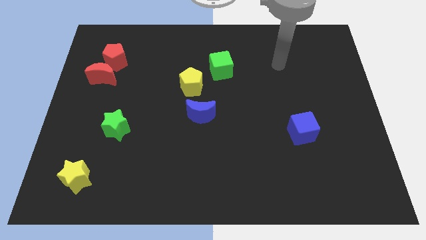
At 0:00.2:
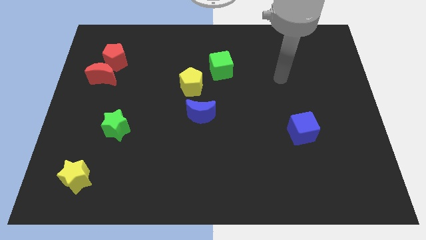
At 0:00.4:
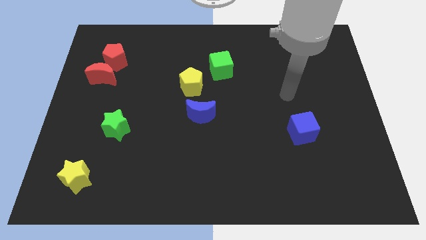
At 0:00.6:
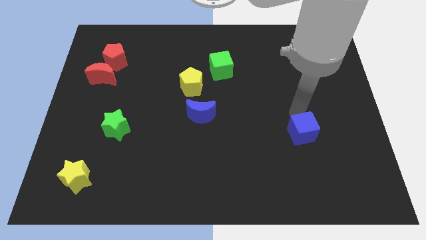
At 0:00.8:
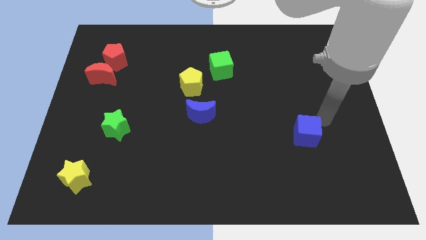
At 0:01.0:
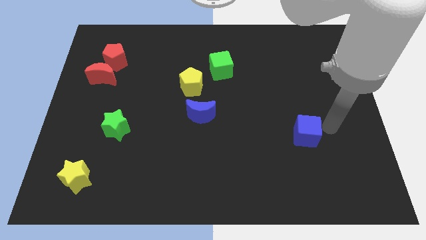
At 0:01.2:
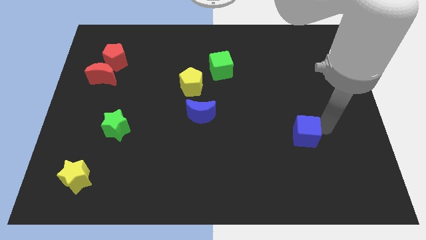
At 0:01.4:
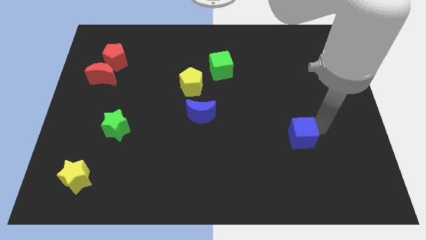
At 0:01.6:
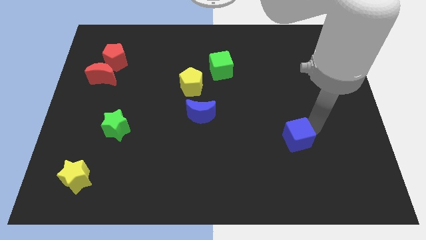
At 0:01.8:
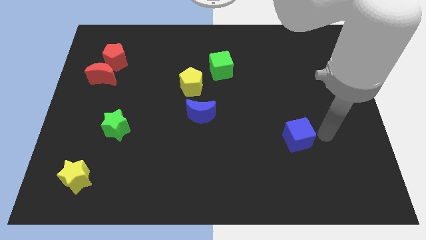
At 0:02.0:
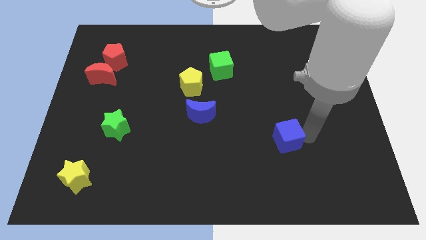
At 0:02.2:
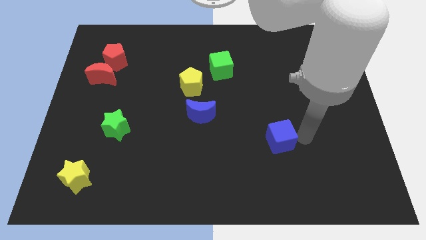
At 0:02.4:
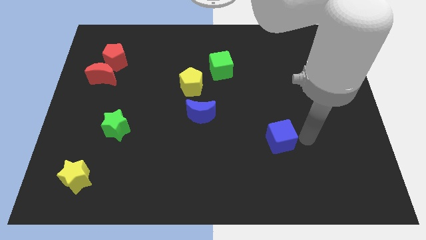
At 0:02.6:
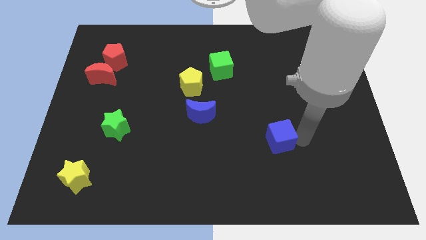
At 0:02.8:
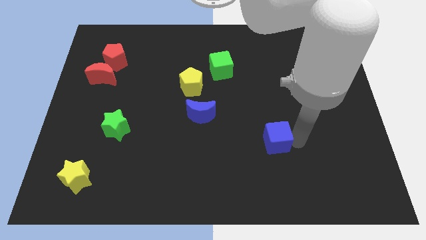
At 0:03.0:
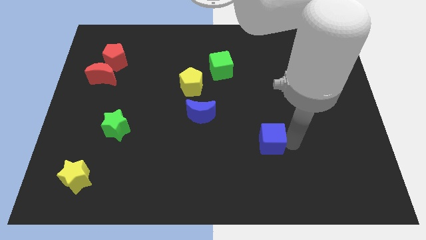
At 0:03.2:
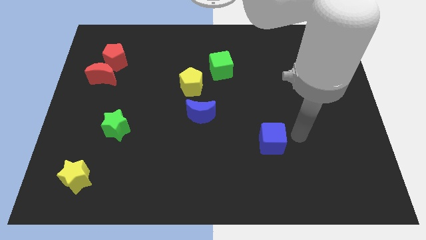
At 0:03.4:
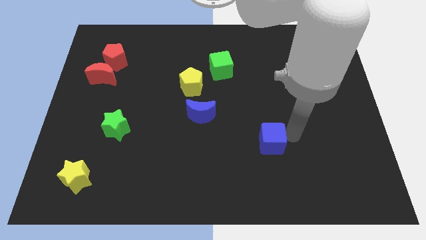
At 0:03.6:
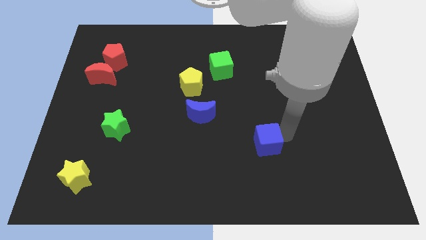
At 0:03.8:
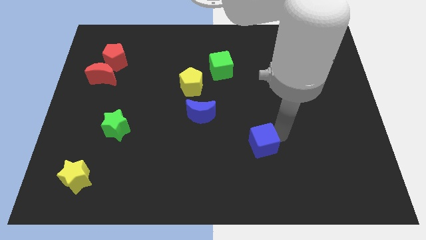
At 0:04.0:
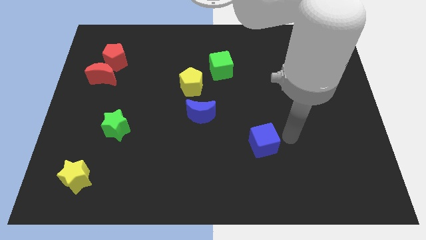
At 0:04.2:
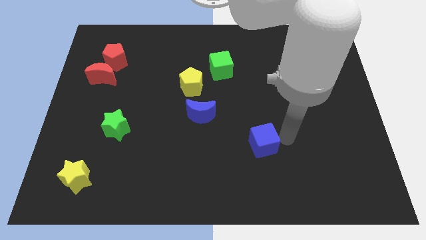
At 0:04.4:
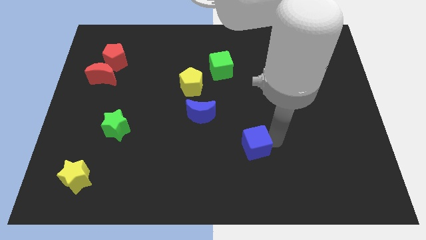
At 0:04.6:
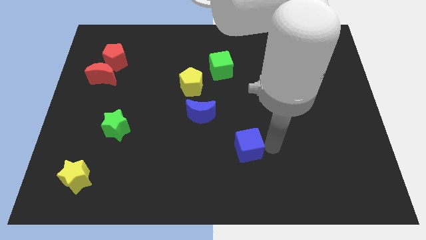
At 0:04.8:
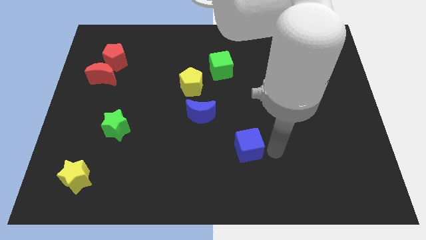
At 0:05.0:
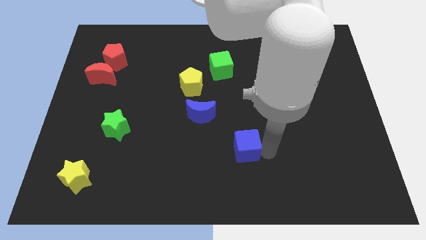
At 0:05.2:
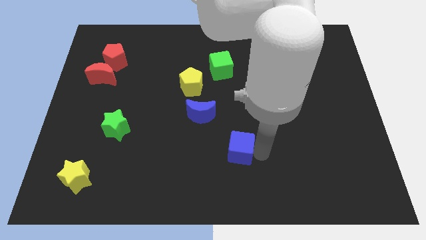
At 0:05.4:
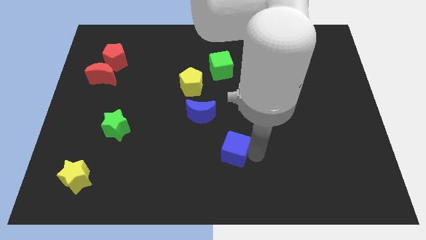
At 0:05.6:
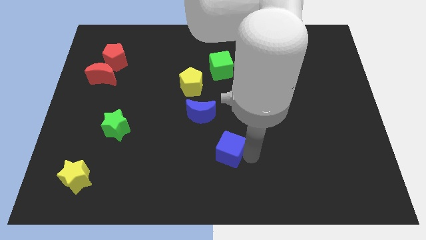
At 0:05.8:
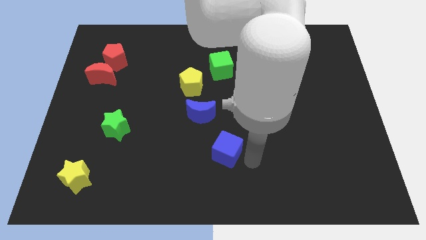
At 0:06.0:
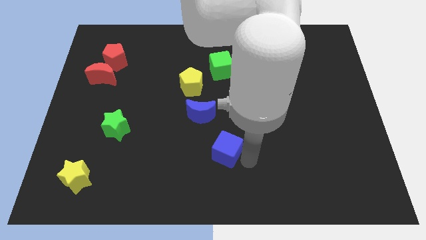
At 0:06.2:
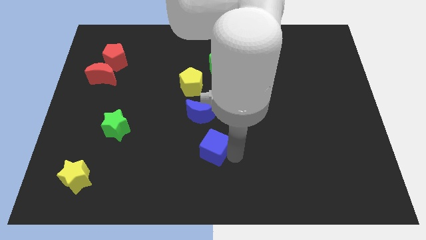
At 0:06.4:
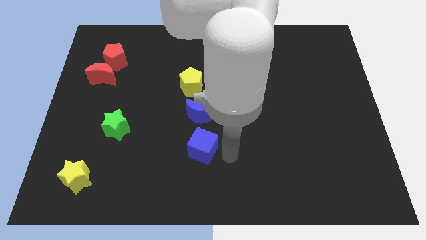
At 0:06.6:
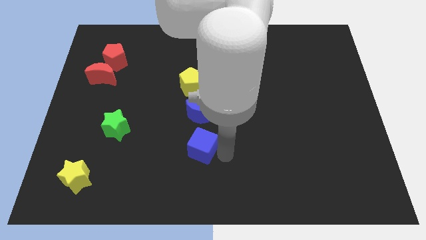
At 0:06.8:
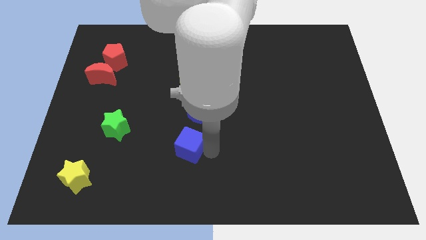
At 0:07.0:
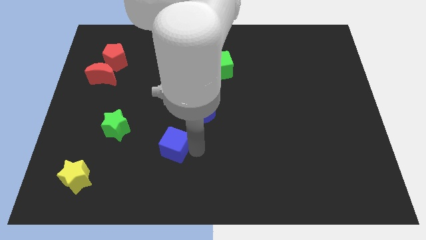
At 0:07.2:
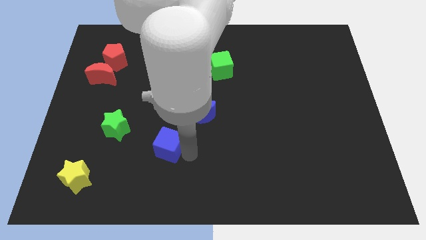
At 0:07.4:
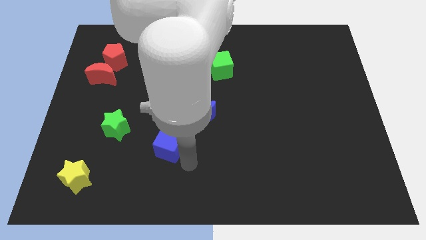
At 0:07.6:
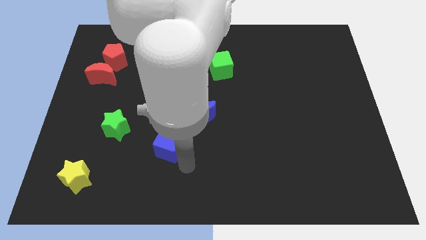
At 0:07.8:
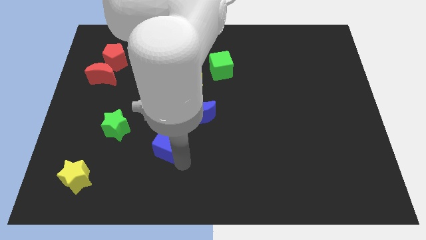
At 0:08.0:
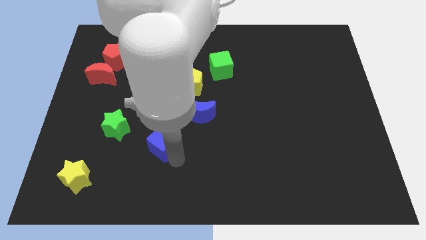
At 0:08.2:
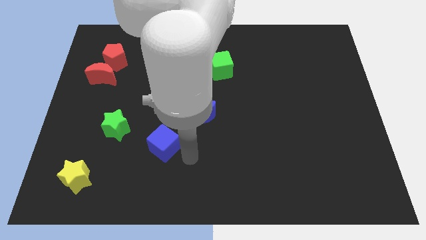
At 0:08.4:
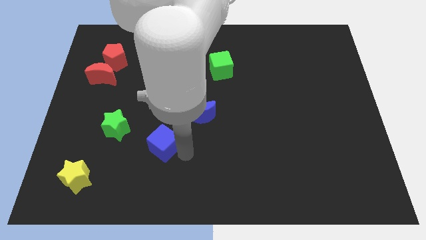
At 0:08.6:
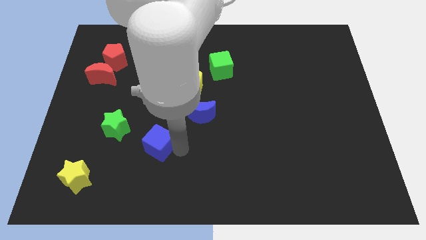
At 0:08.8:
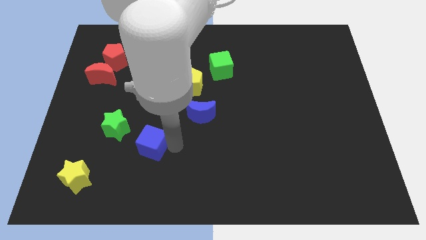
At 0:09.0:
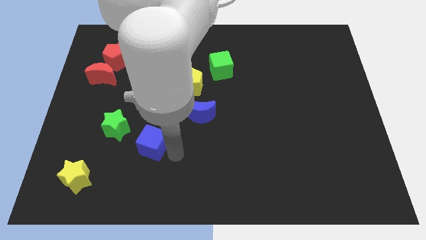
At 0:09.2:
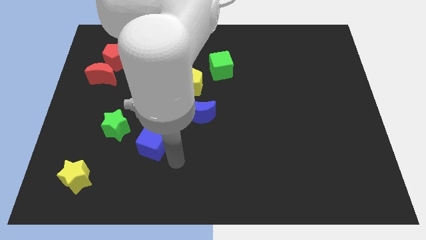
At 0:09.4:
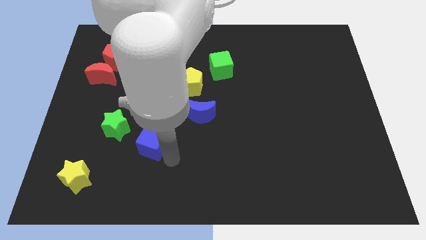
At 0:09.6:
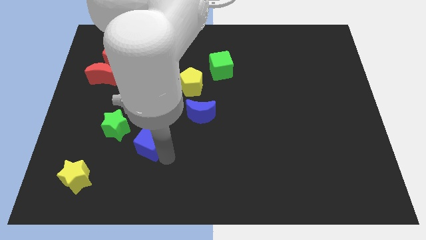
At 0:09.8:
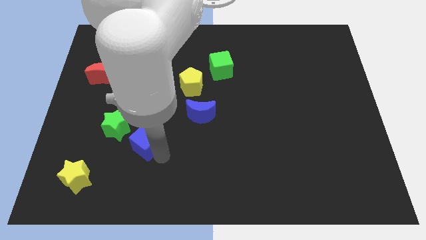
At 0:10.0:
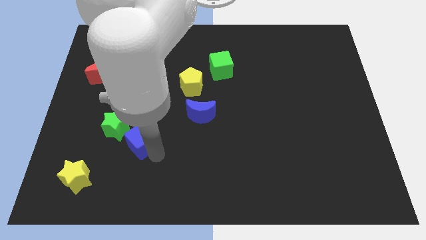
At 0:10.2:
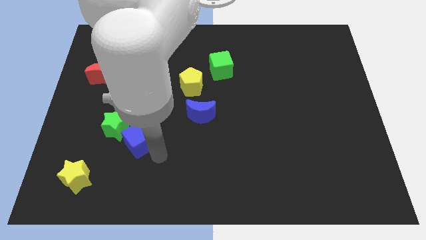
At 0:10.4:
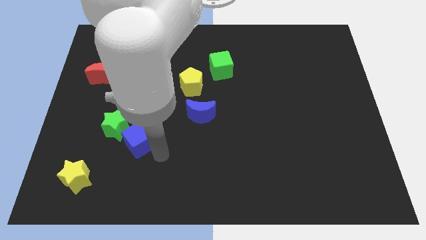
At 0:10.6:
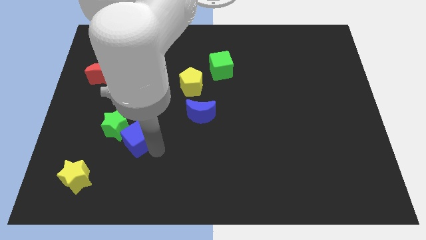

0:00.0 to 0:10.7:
move the blue cube close to the green star

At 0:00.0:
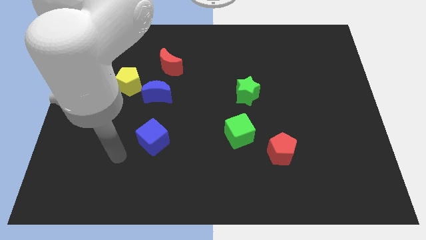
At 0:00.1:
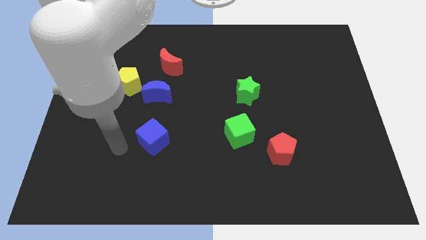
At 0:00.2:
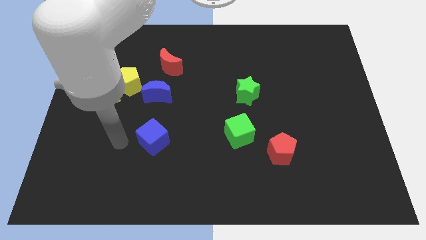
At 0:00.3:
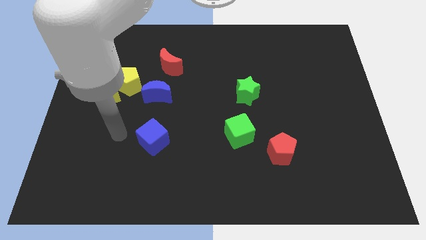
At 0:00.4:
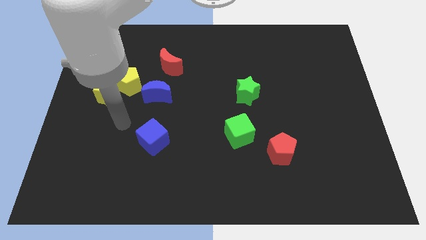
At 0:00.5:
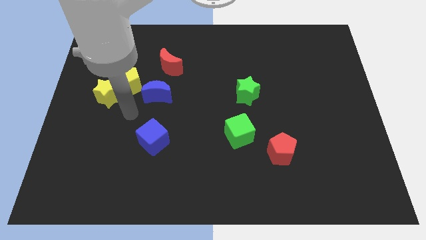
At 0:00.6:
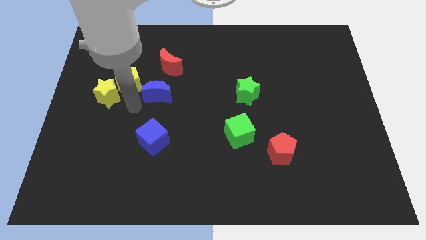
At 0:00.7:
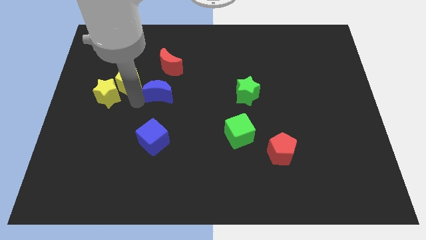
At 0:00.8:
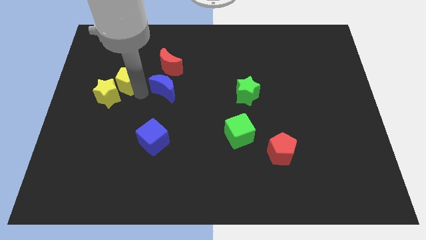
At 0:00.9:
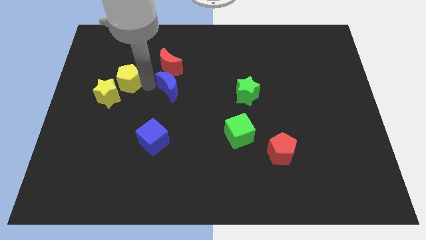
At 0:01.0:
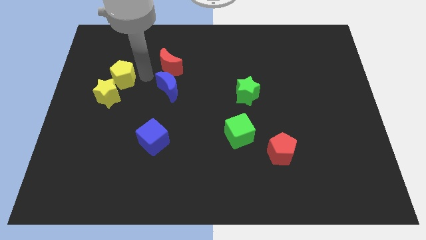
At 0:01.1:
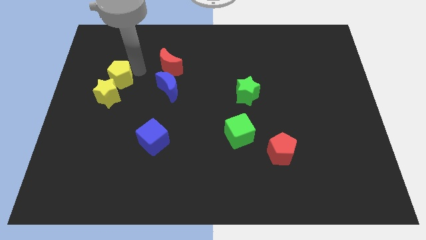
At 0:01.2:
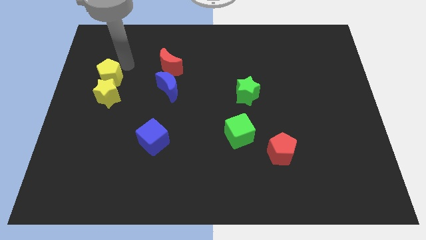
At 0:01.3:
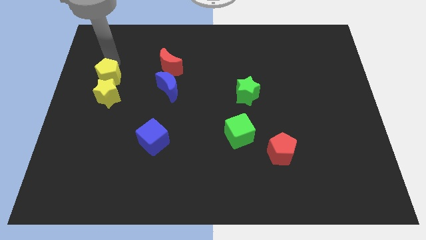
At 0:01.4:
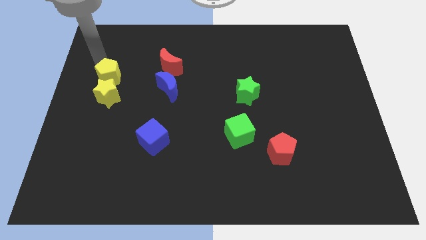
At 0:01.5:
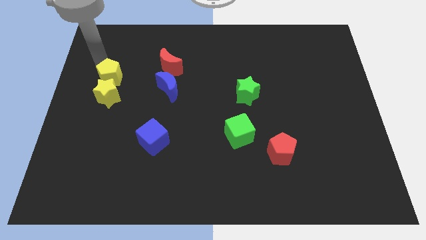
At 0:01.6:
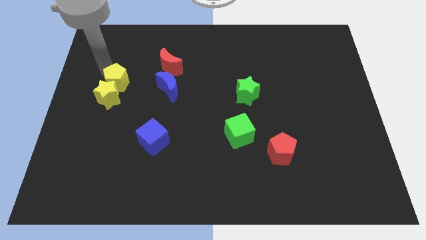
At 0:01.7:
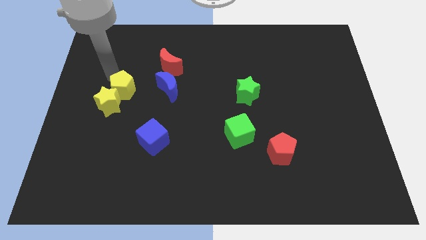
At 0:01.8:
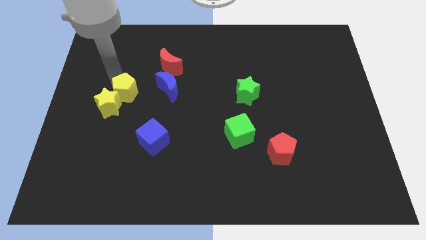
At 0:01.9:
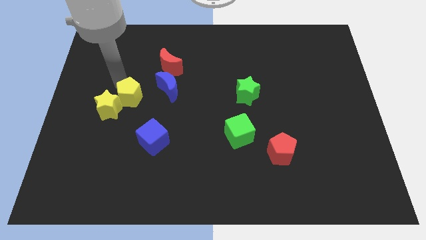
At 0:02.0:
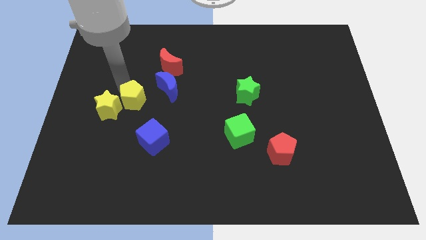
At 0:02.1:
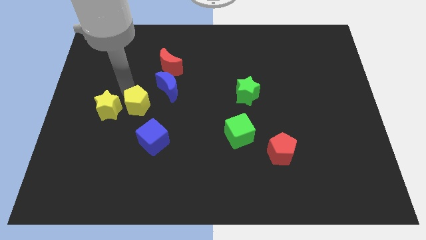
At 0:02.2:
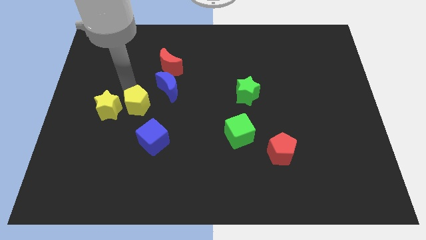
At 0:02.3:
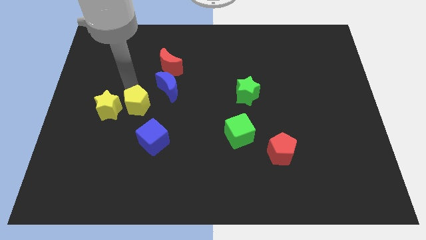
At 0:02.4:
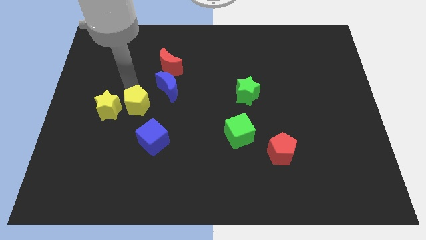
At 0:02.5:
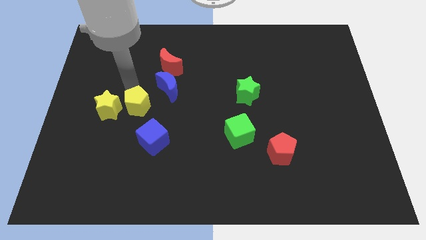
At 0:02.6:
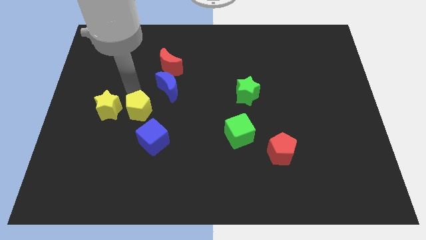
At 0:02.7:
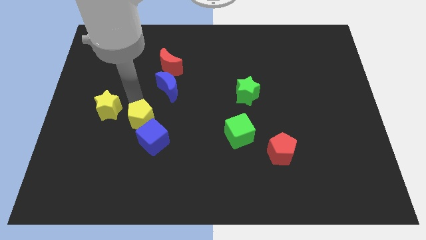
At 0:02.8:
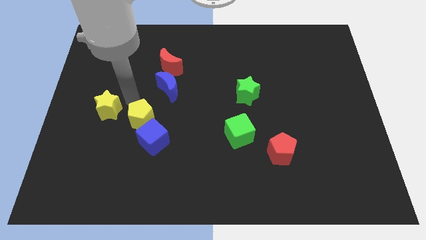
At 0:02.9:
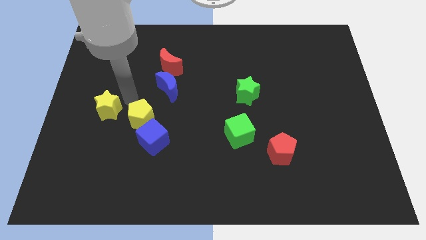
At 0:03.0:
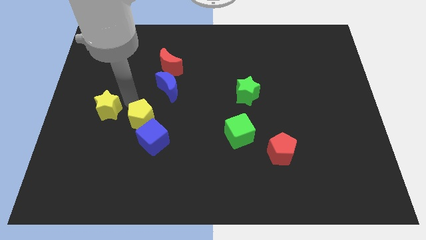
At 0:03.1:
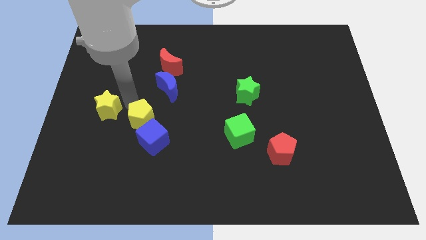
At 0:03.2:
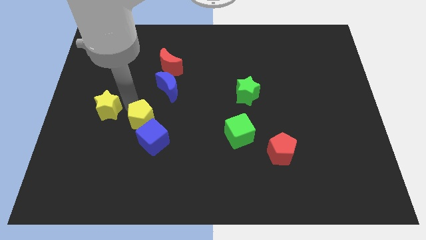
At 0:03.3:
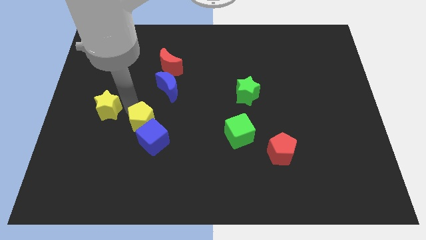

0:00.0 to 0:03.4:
push the yellow pentagon next to the blue cube
